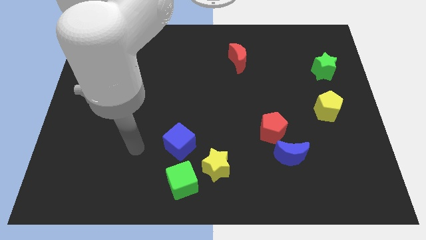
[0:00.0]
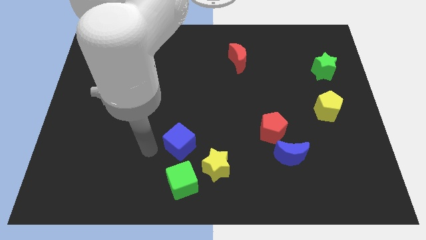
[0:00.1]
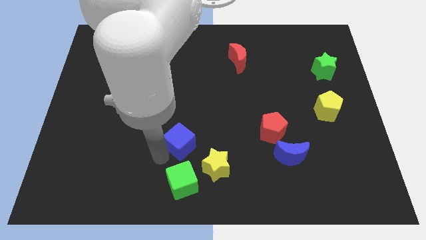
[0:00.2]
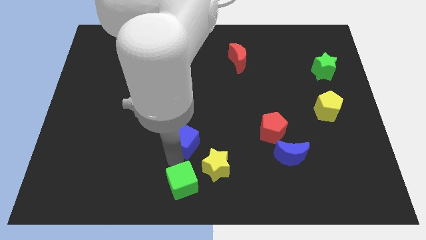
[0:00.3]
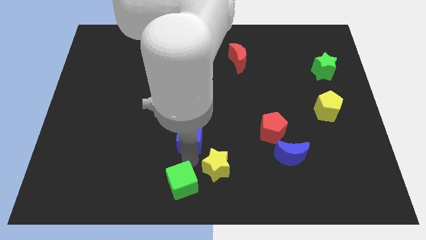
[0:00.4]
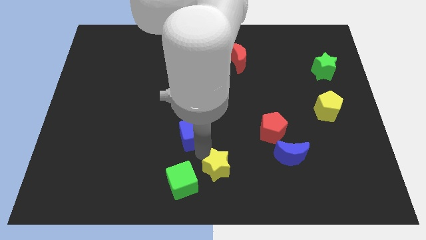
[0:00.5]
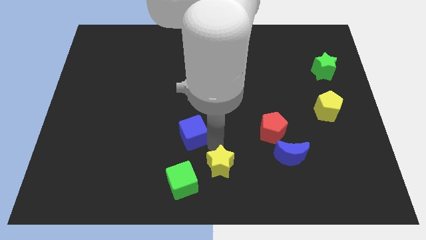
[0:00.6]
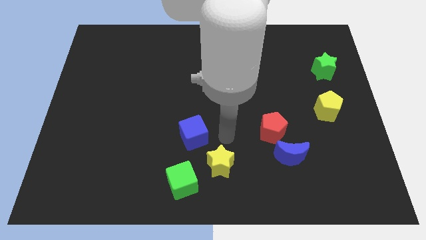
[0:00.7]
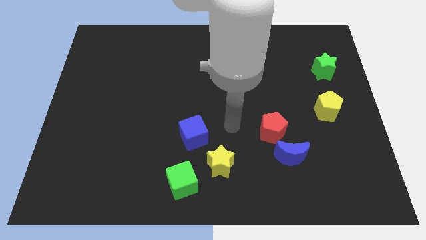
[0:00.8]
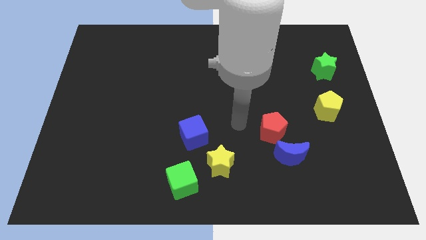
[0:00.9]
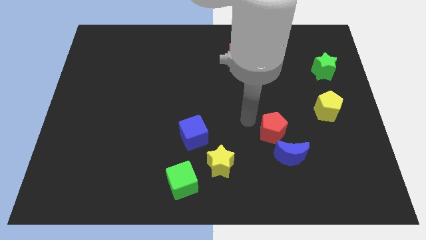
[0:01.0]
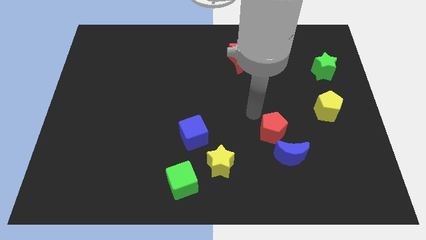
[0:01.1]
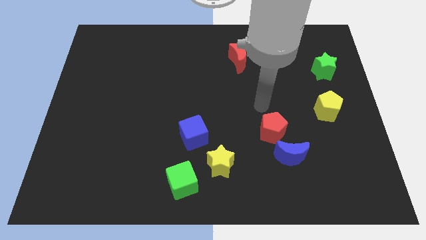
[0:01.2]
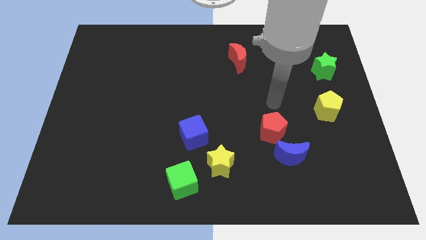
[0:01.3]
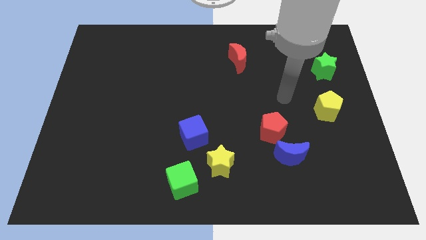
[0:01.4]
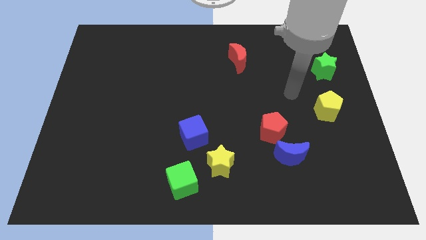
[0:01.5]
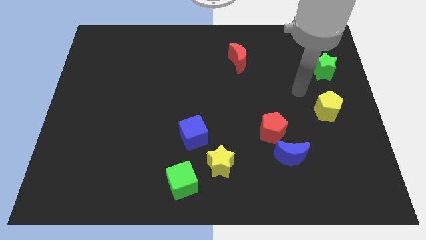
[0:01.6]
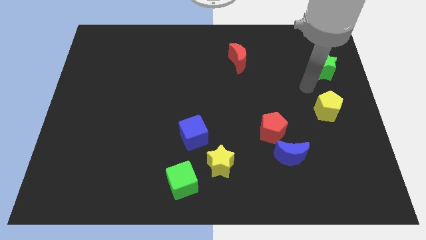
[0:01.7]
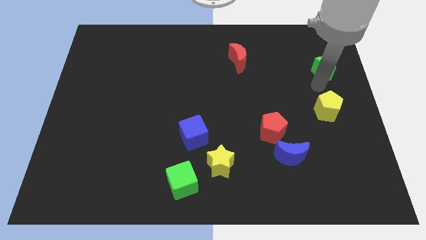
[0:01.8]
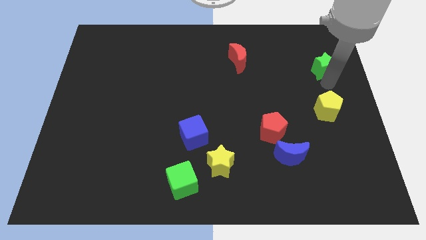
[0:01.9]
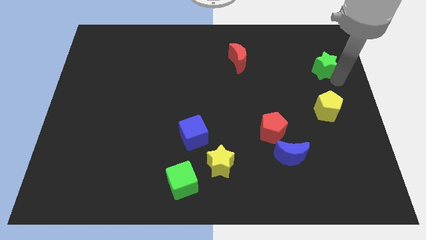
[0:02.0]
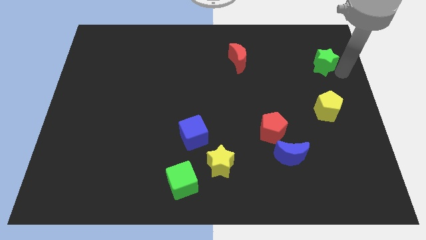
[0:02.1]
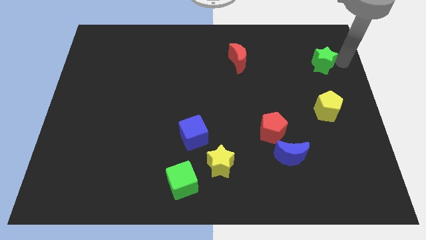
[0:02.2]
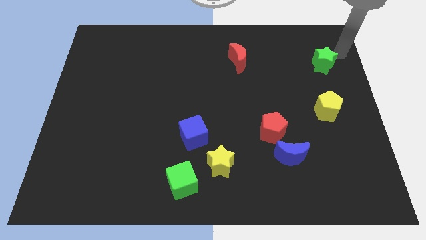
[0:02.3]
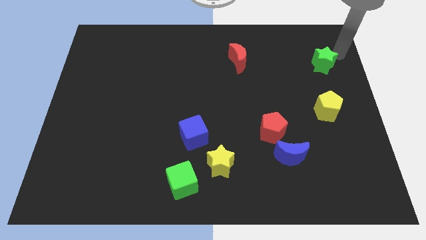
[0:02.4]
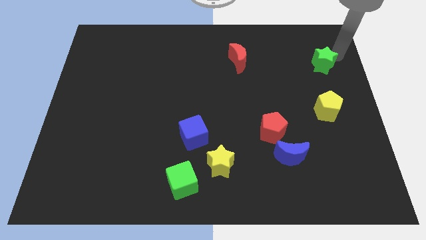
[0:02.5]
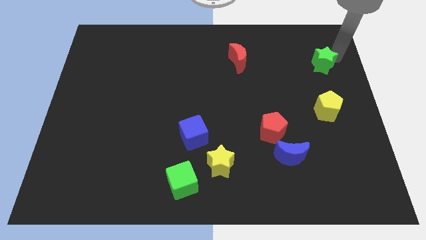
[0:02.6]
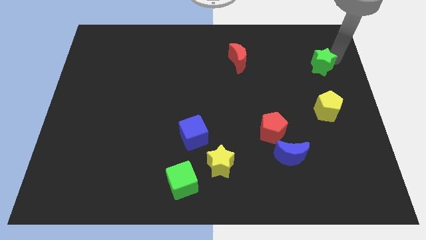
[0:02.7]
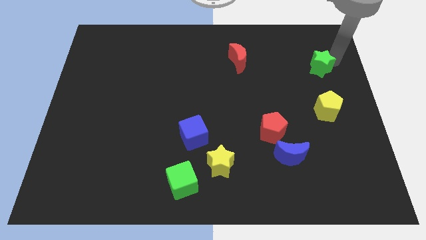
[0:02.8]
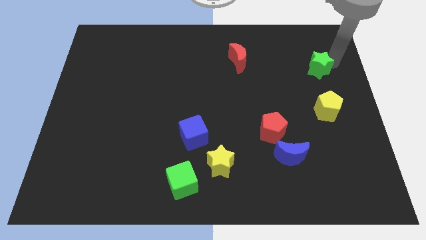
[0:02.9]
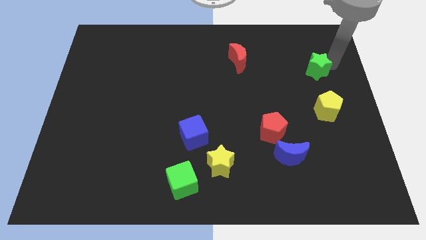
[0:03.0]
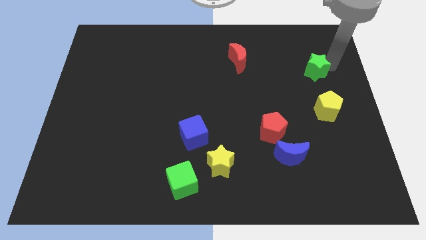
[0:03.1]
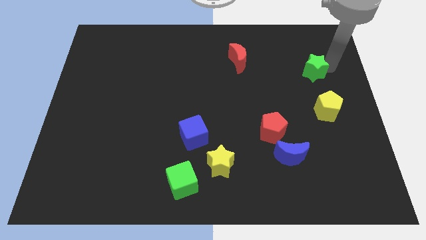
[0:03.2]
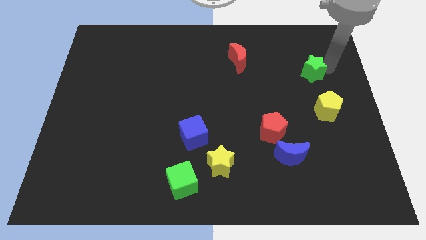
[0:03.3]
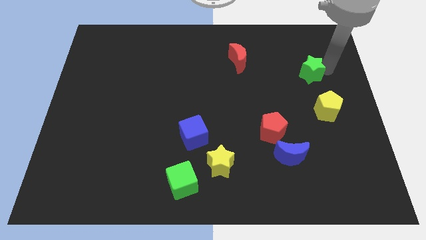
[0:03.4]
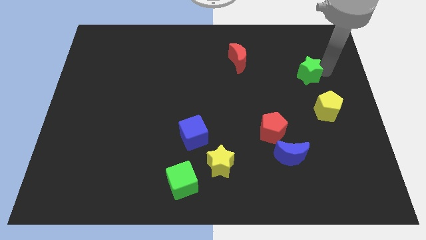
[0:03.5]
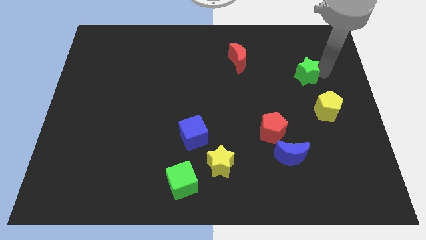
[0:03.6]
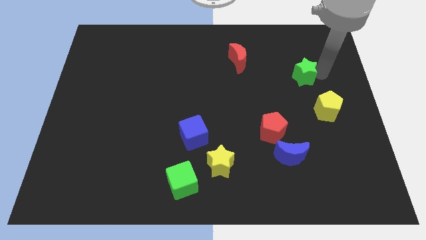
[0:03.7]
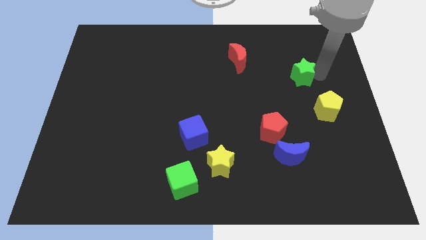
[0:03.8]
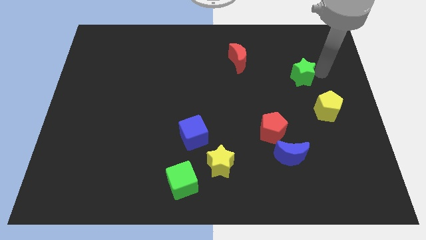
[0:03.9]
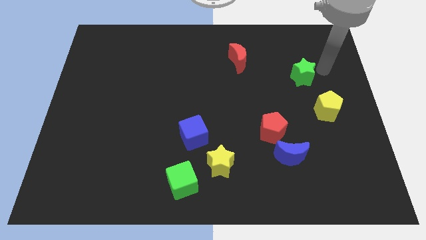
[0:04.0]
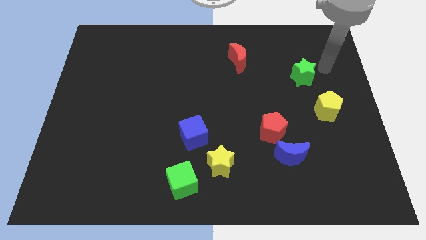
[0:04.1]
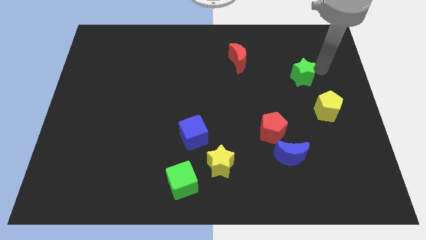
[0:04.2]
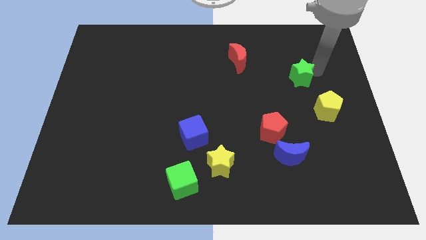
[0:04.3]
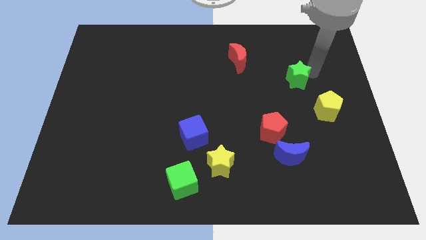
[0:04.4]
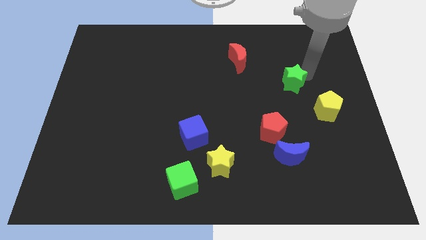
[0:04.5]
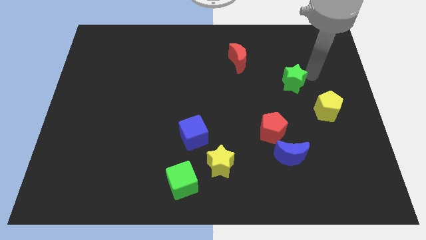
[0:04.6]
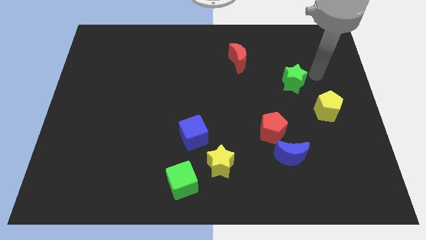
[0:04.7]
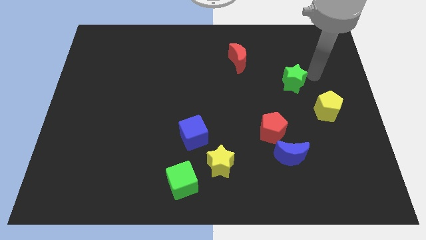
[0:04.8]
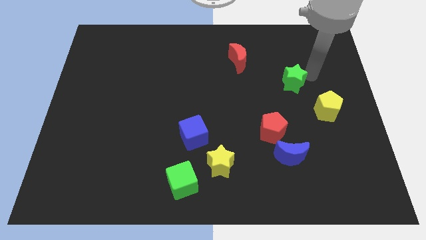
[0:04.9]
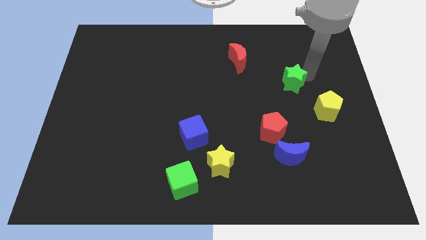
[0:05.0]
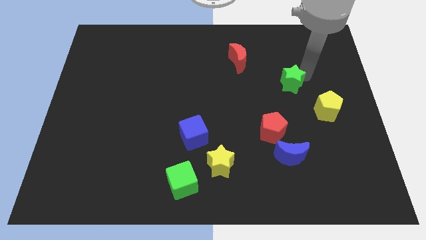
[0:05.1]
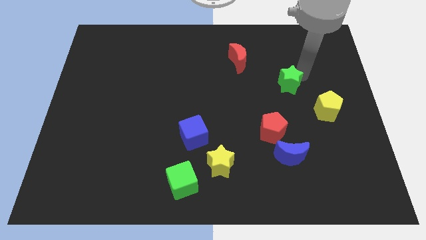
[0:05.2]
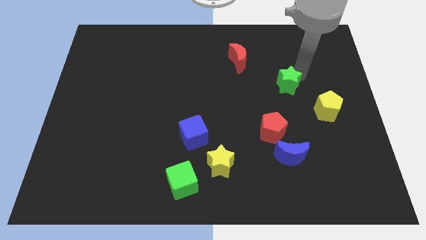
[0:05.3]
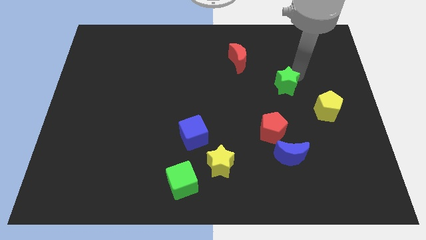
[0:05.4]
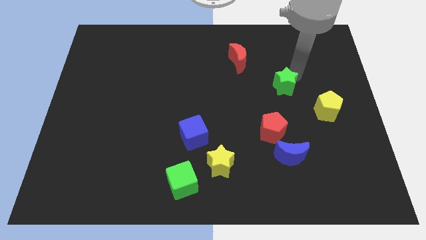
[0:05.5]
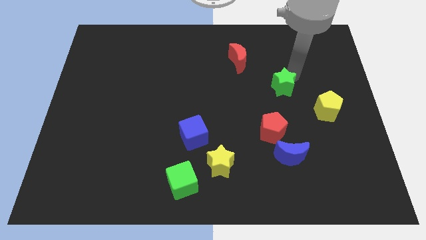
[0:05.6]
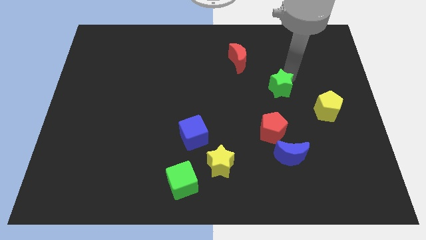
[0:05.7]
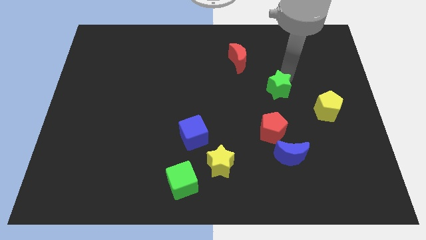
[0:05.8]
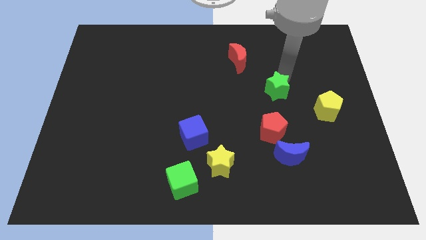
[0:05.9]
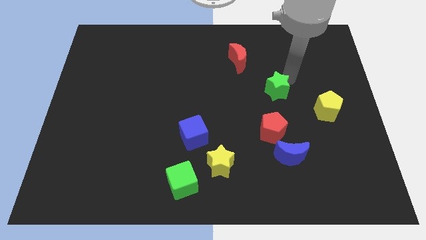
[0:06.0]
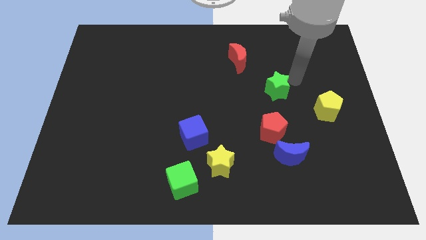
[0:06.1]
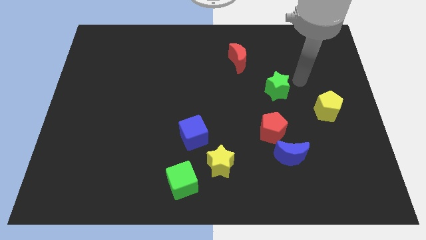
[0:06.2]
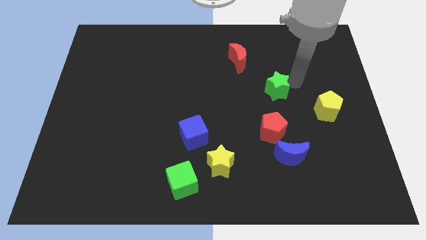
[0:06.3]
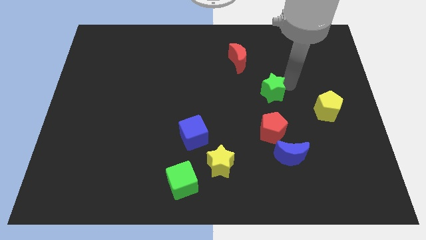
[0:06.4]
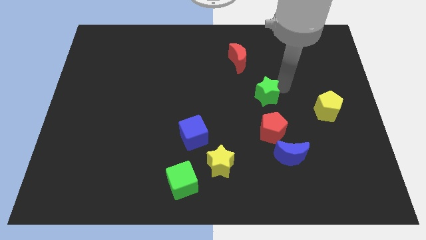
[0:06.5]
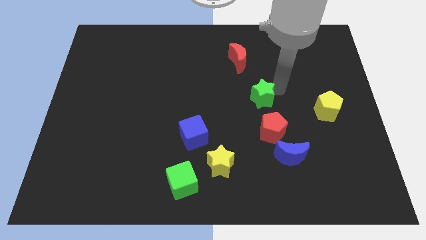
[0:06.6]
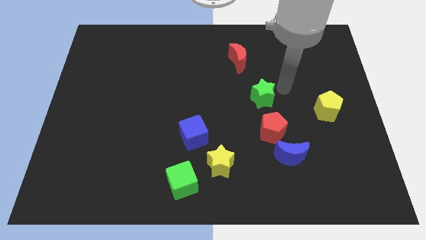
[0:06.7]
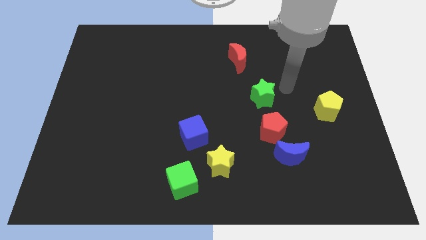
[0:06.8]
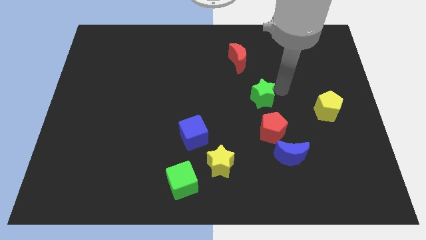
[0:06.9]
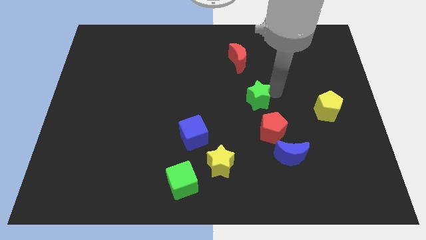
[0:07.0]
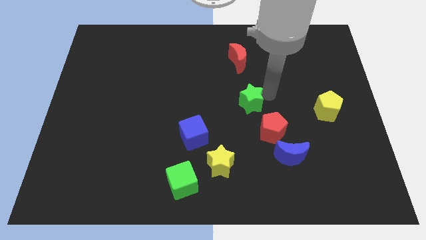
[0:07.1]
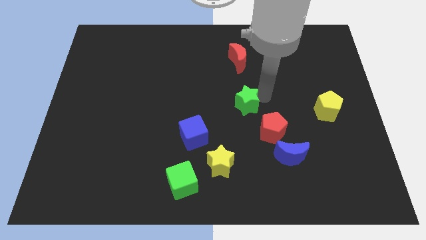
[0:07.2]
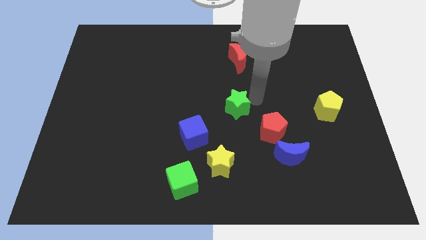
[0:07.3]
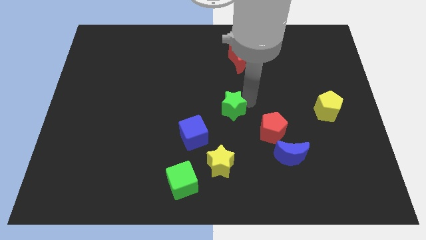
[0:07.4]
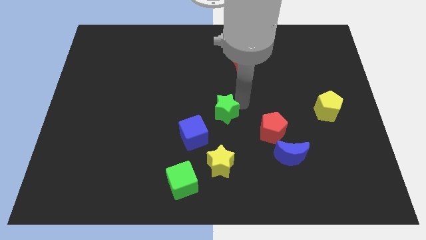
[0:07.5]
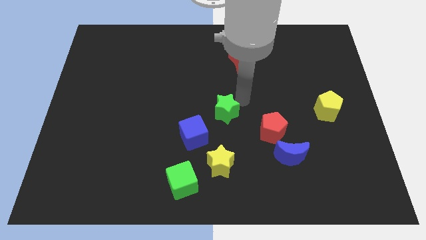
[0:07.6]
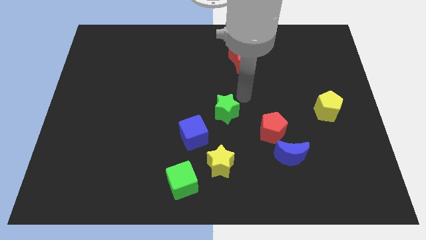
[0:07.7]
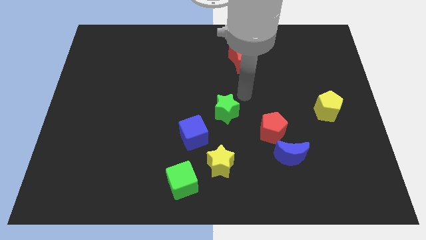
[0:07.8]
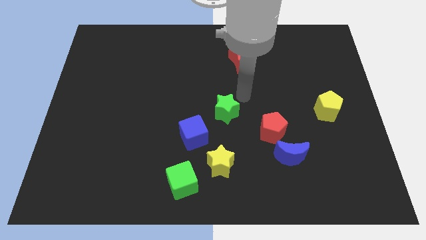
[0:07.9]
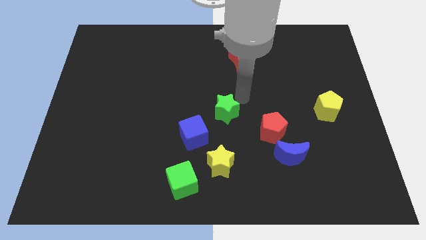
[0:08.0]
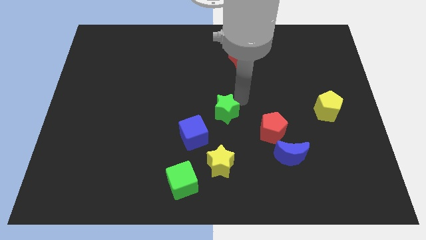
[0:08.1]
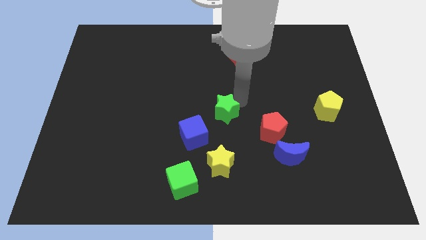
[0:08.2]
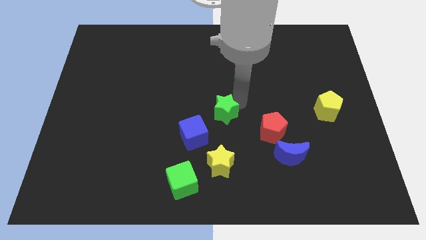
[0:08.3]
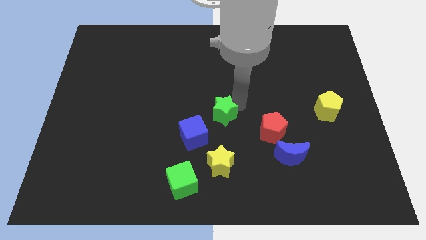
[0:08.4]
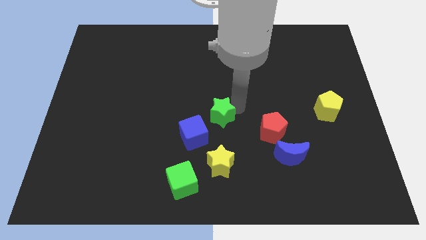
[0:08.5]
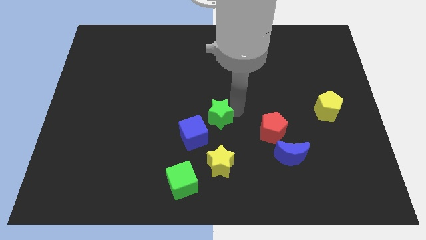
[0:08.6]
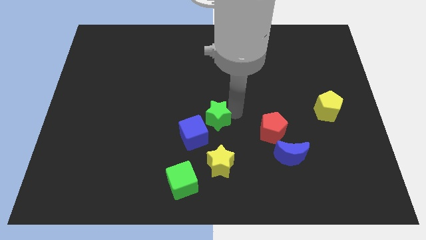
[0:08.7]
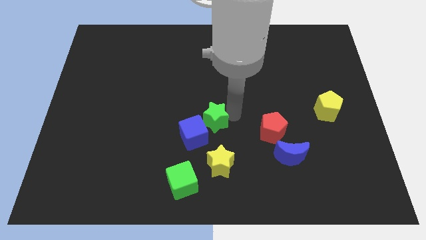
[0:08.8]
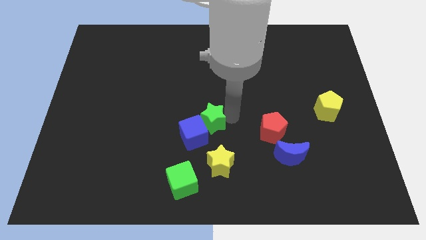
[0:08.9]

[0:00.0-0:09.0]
put the green star close to the blue cube
